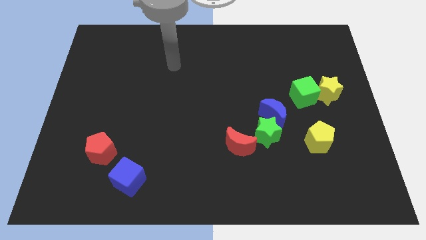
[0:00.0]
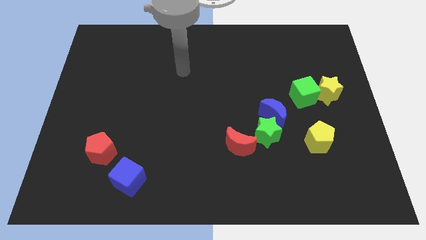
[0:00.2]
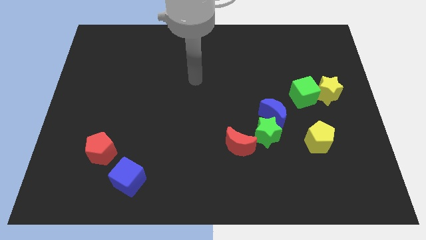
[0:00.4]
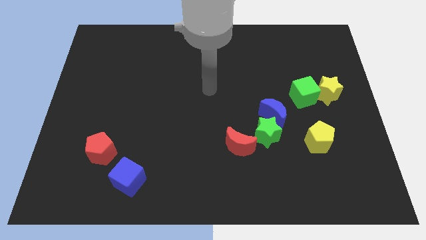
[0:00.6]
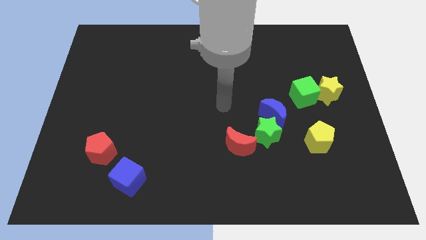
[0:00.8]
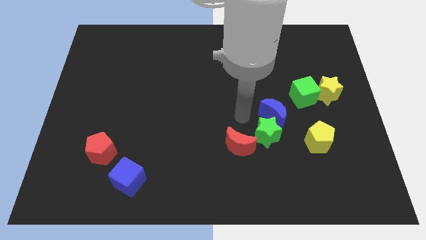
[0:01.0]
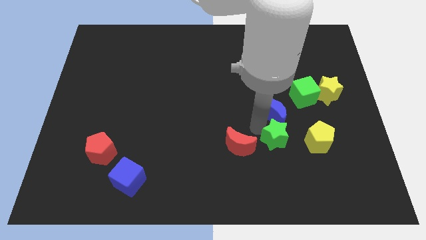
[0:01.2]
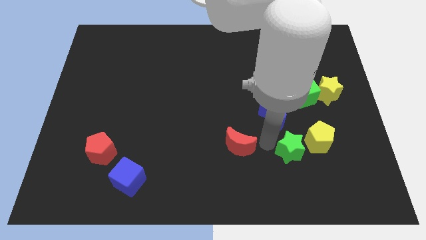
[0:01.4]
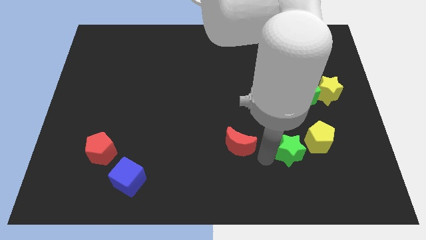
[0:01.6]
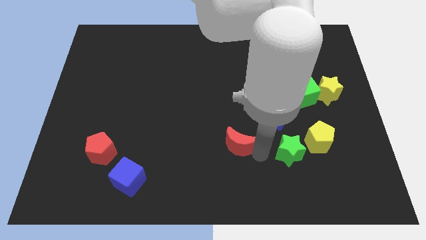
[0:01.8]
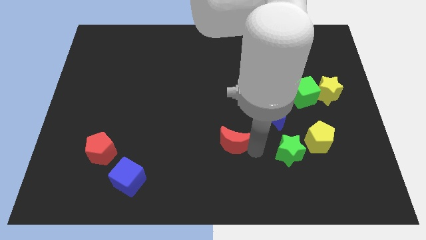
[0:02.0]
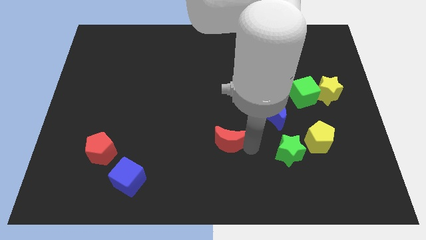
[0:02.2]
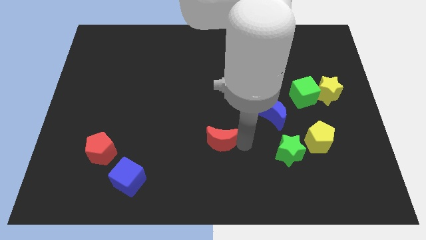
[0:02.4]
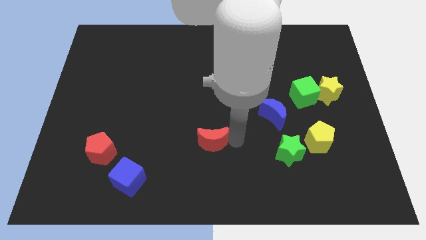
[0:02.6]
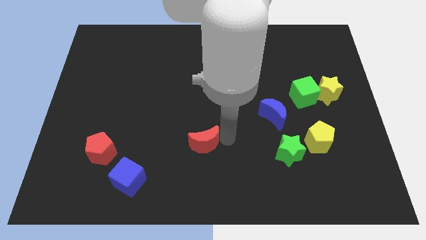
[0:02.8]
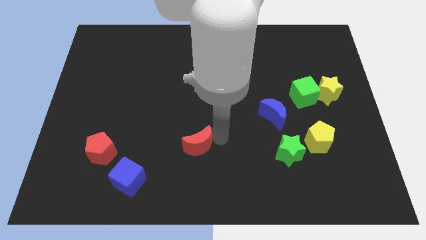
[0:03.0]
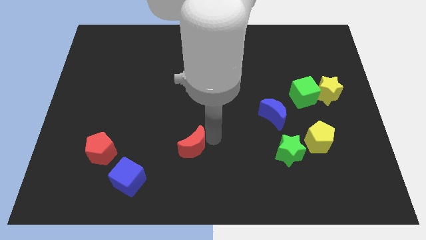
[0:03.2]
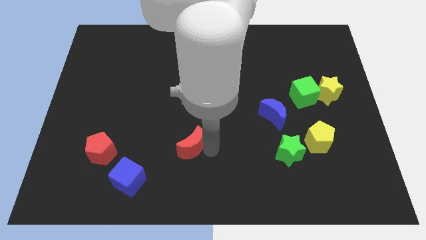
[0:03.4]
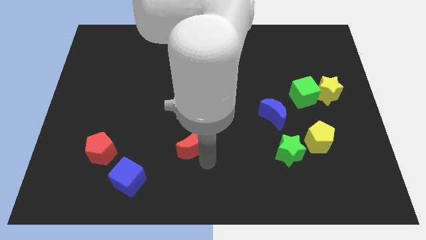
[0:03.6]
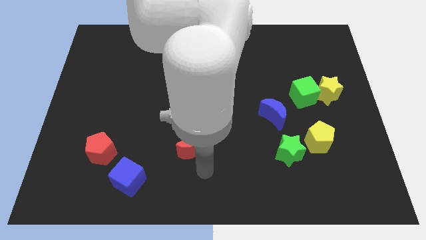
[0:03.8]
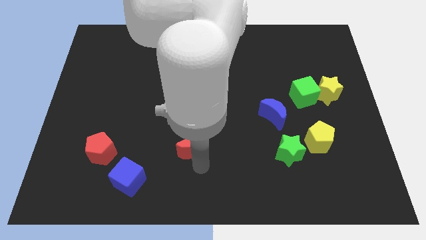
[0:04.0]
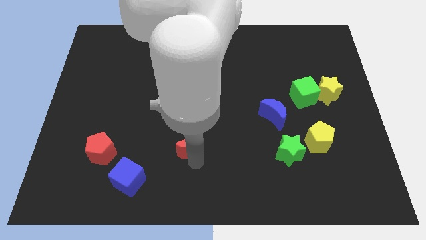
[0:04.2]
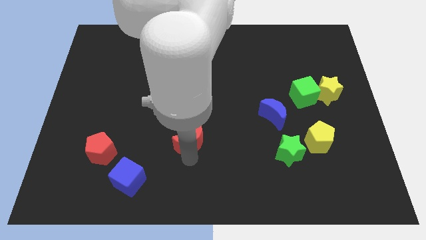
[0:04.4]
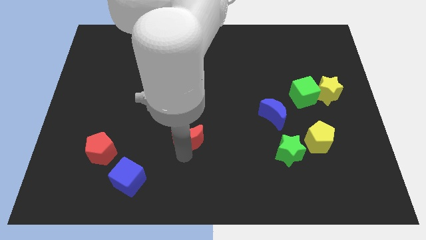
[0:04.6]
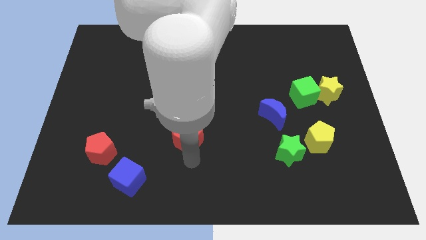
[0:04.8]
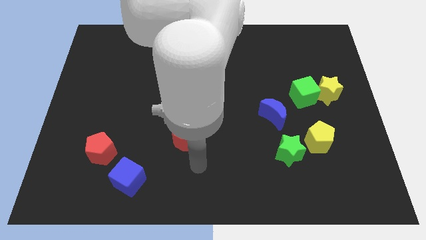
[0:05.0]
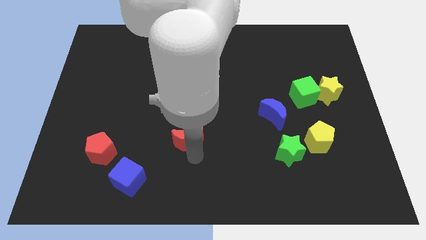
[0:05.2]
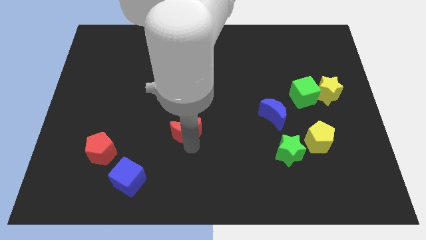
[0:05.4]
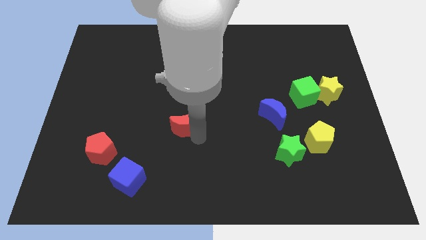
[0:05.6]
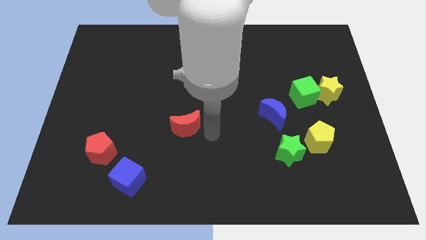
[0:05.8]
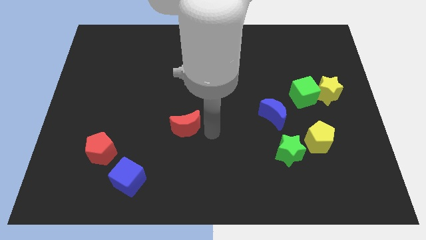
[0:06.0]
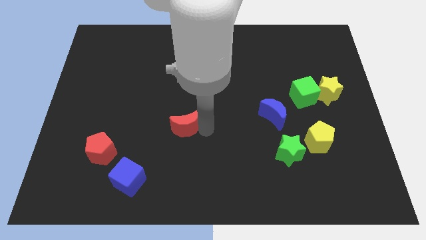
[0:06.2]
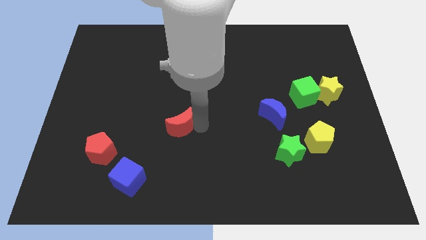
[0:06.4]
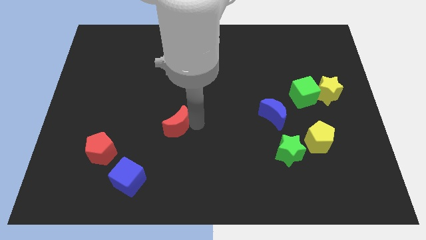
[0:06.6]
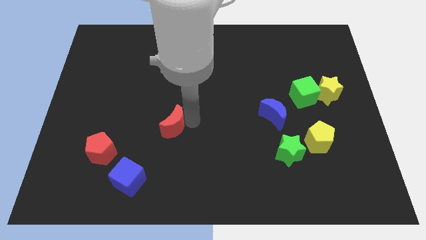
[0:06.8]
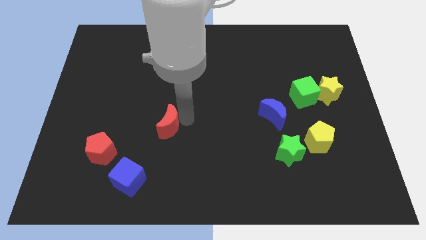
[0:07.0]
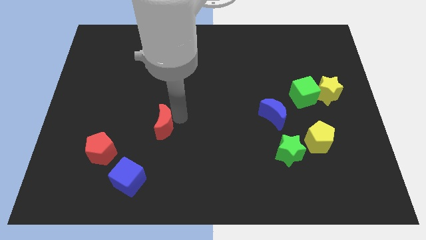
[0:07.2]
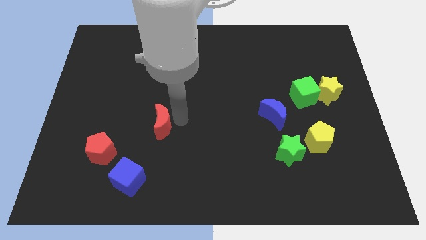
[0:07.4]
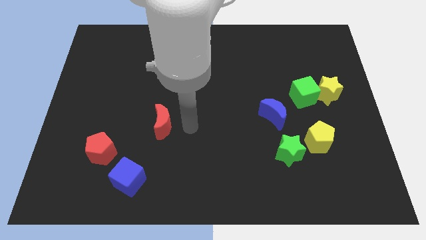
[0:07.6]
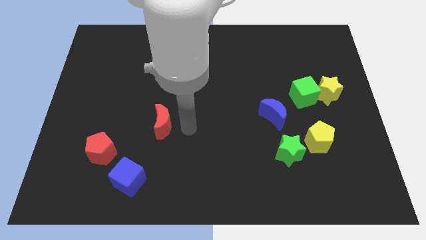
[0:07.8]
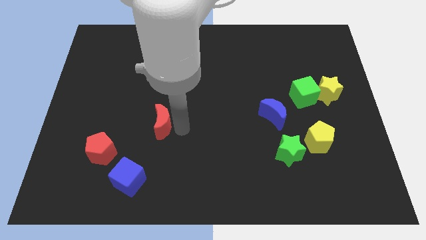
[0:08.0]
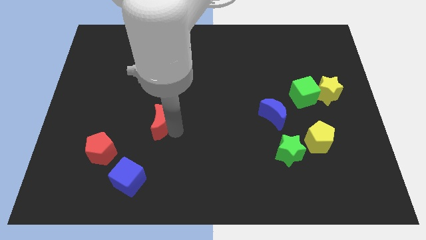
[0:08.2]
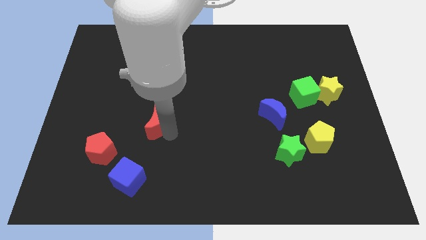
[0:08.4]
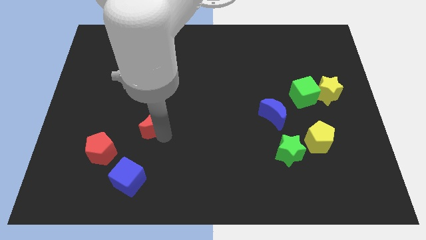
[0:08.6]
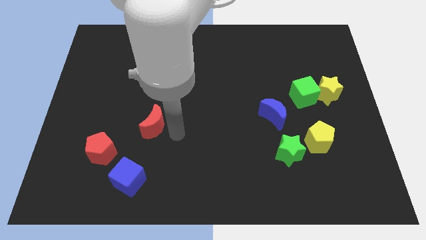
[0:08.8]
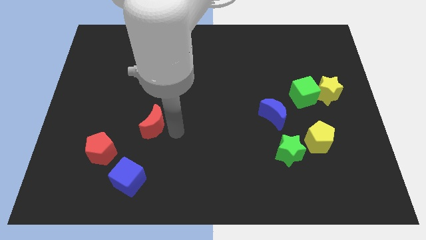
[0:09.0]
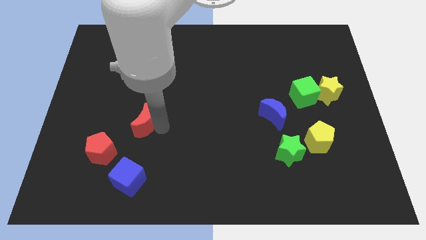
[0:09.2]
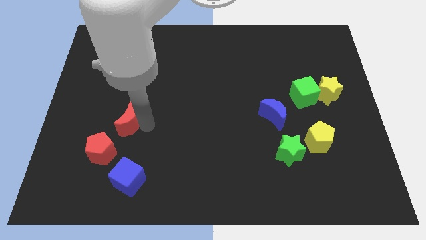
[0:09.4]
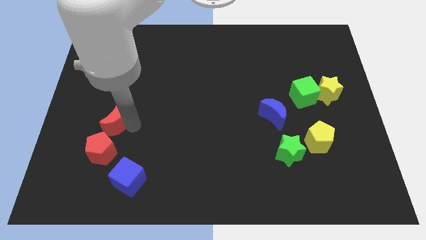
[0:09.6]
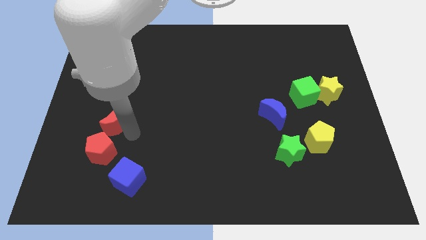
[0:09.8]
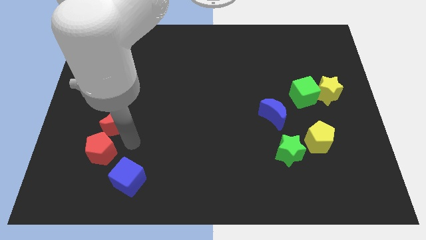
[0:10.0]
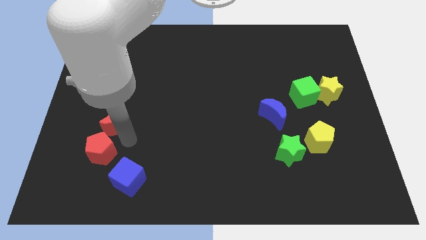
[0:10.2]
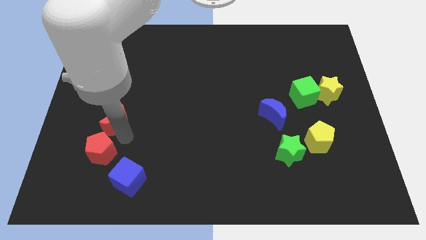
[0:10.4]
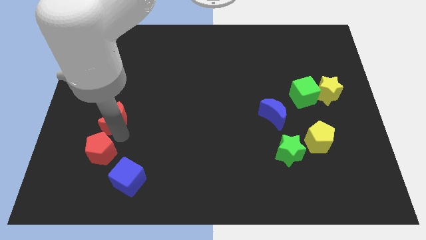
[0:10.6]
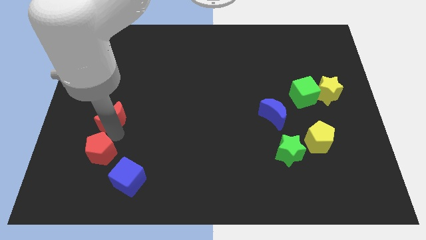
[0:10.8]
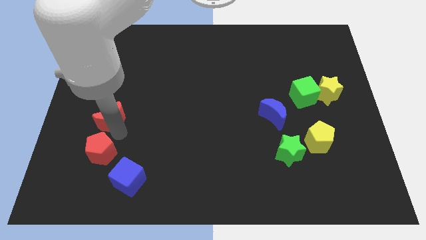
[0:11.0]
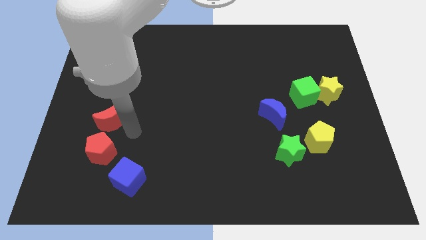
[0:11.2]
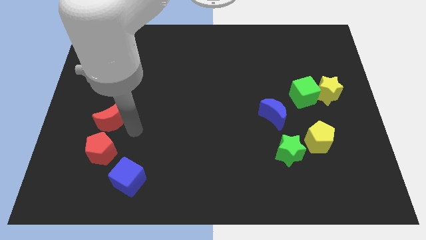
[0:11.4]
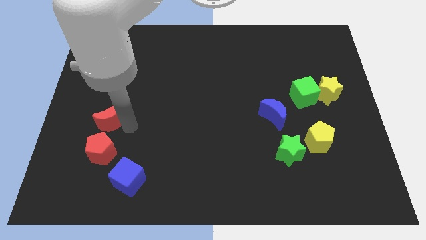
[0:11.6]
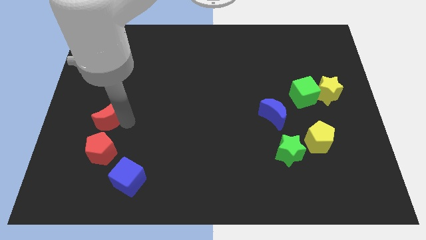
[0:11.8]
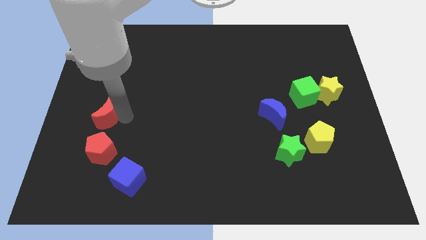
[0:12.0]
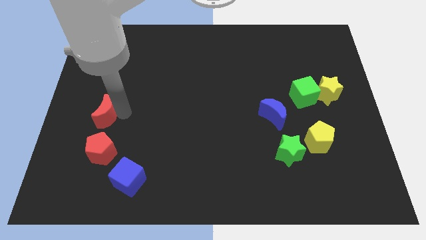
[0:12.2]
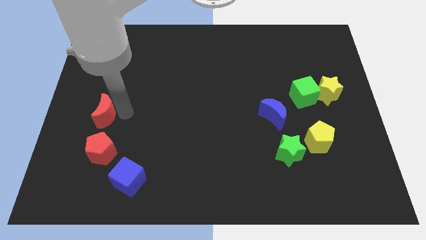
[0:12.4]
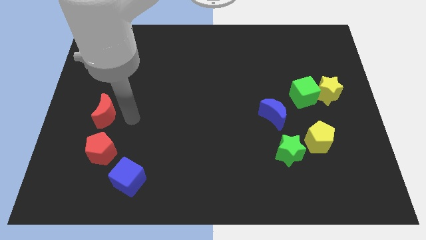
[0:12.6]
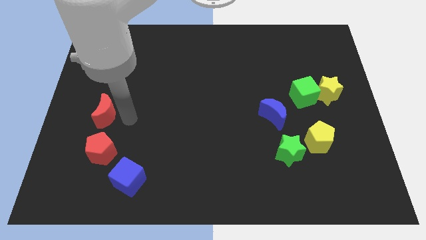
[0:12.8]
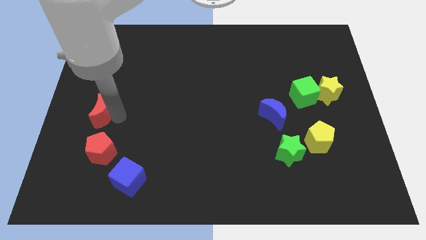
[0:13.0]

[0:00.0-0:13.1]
put the red moon to the left side of the board

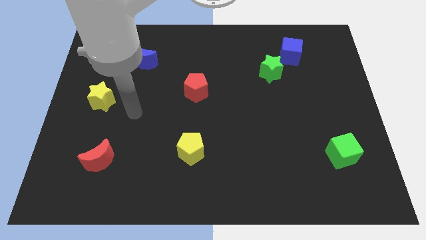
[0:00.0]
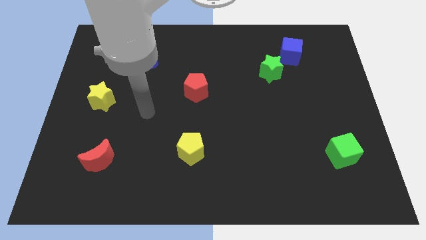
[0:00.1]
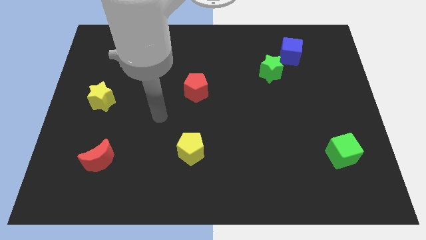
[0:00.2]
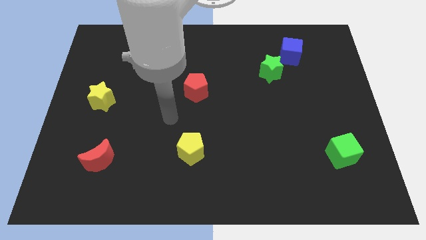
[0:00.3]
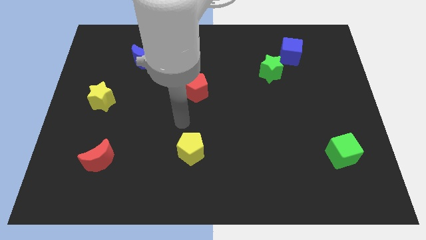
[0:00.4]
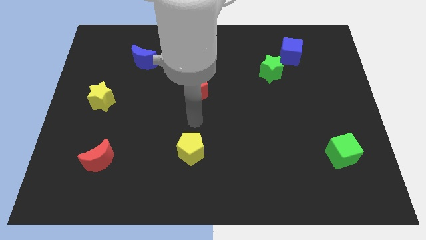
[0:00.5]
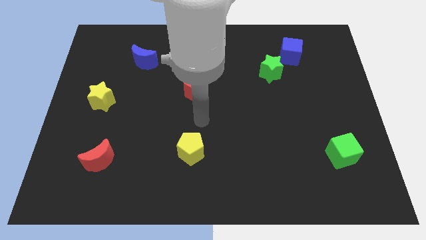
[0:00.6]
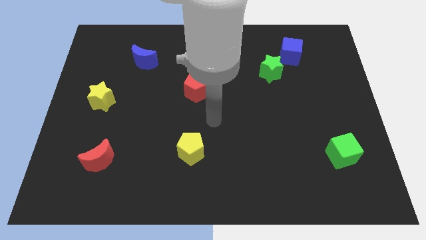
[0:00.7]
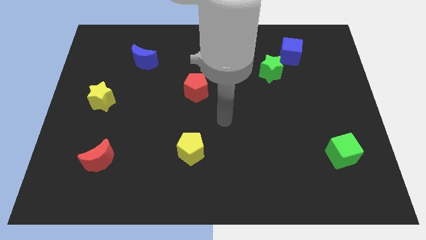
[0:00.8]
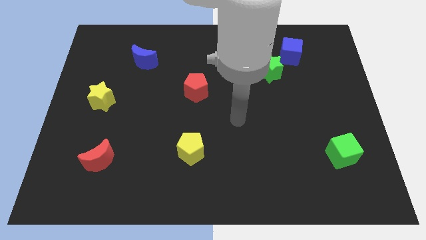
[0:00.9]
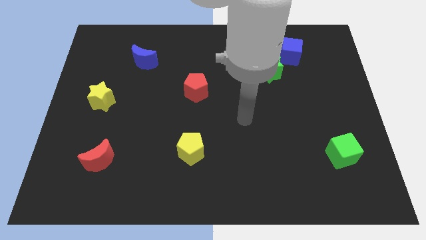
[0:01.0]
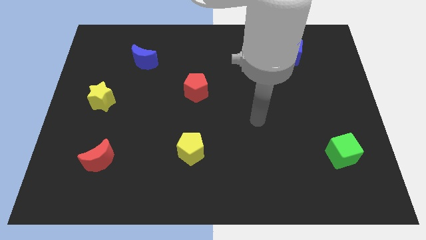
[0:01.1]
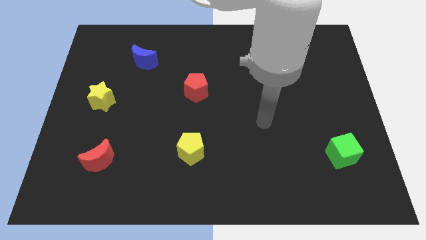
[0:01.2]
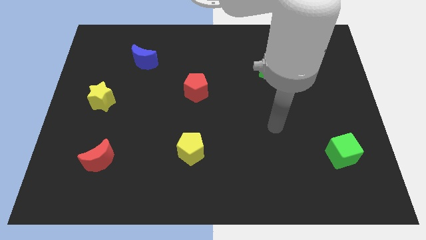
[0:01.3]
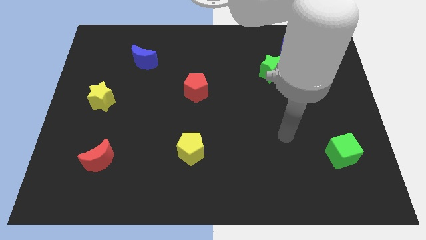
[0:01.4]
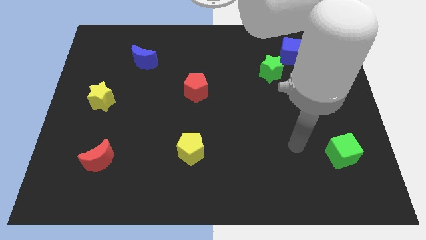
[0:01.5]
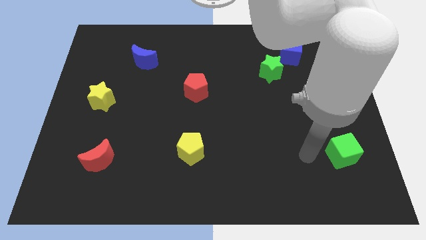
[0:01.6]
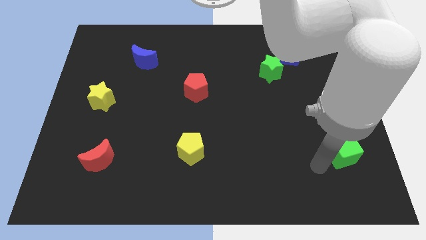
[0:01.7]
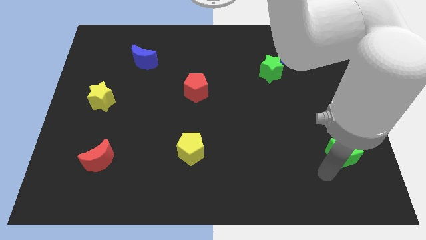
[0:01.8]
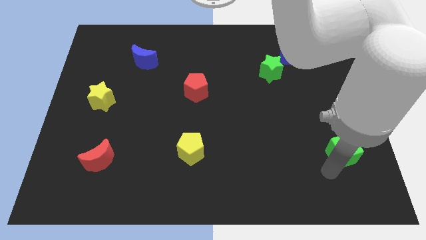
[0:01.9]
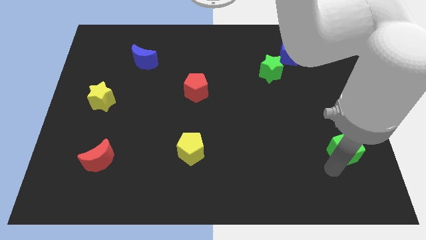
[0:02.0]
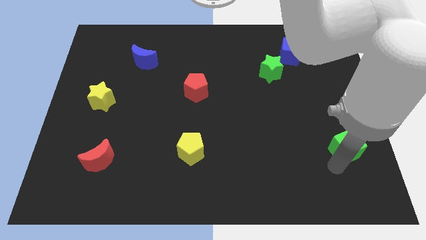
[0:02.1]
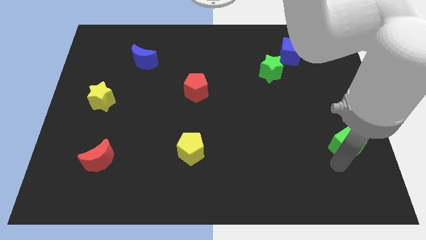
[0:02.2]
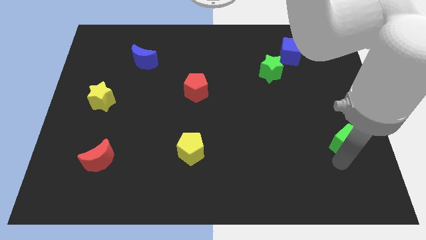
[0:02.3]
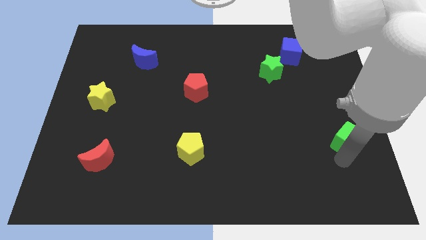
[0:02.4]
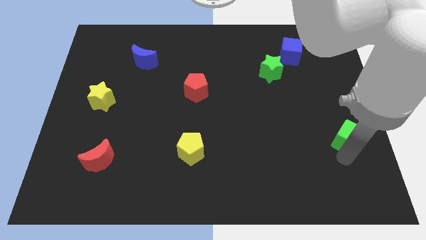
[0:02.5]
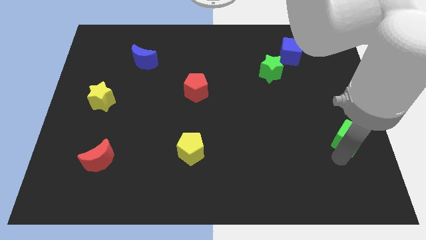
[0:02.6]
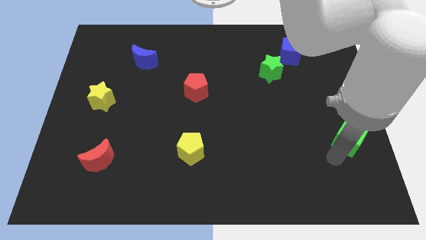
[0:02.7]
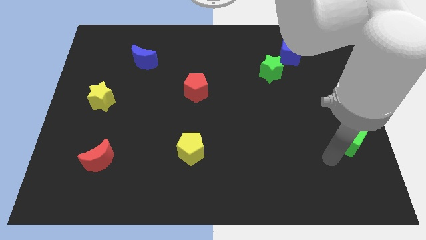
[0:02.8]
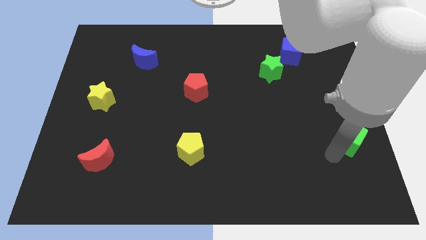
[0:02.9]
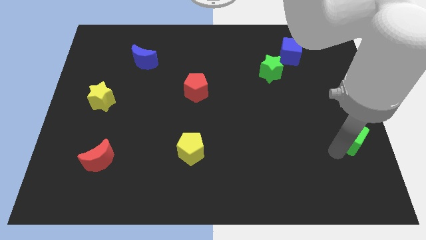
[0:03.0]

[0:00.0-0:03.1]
push the green cube to the right side of the board
